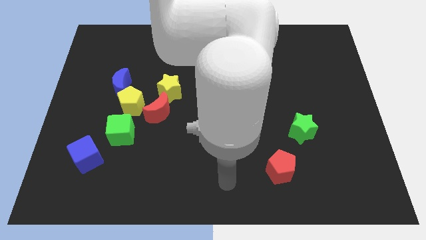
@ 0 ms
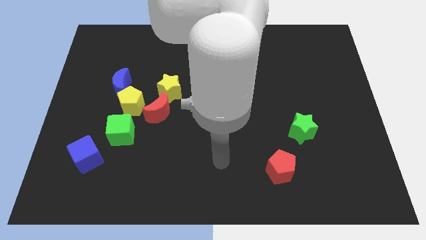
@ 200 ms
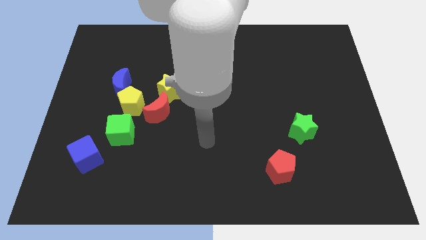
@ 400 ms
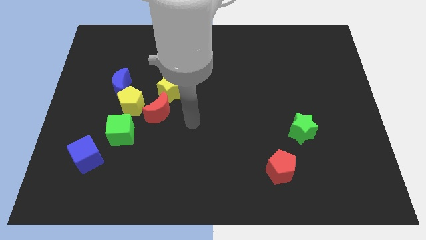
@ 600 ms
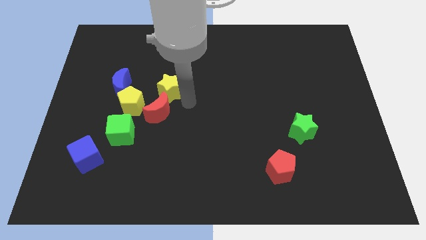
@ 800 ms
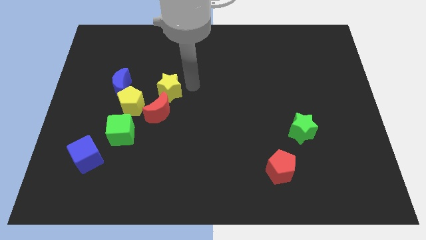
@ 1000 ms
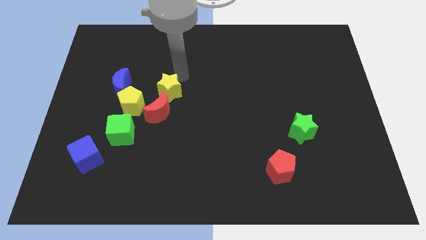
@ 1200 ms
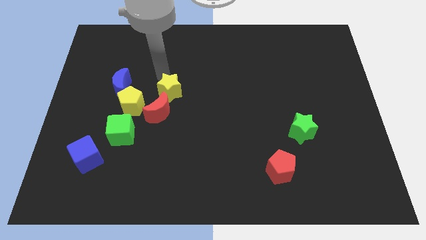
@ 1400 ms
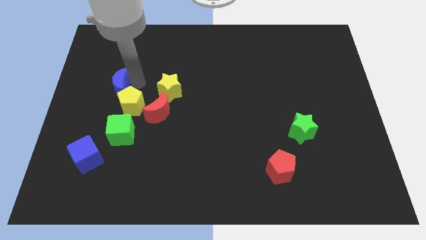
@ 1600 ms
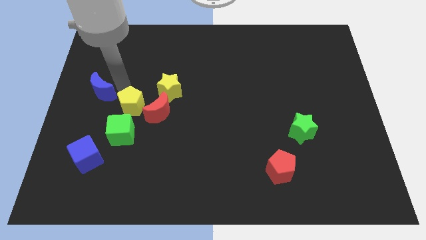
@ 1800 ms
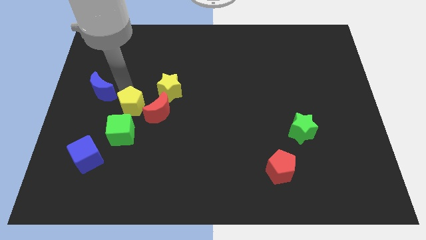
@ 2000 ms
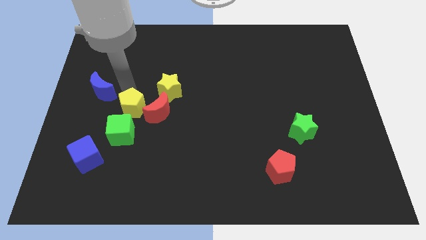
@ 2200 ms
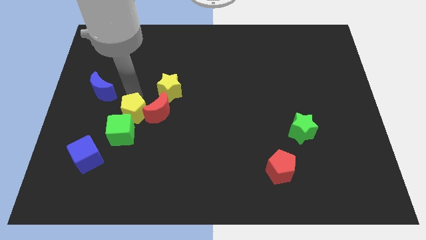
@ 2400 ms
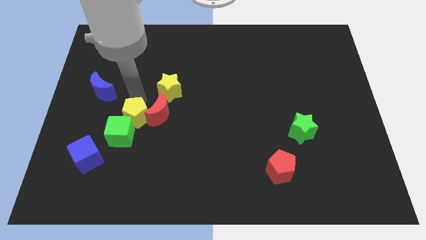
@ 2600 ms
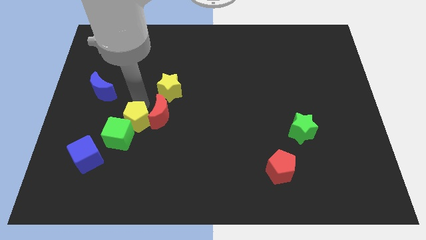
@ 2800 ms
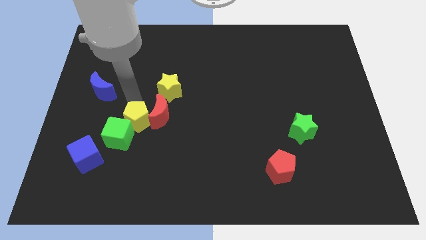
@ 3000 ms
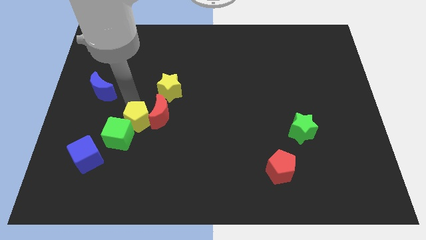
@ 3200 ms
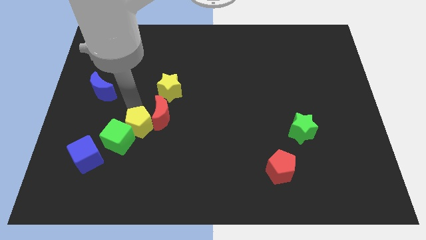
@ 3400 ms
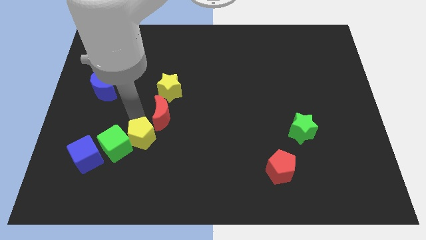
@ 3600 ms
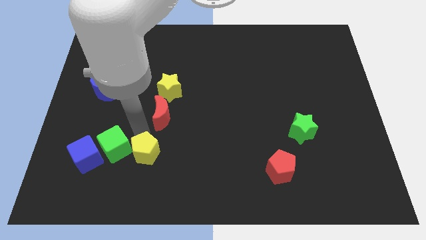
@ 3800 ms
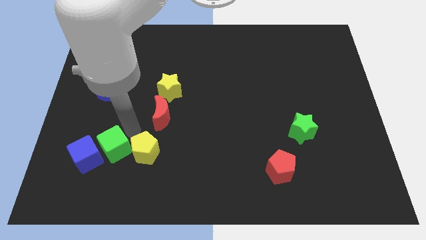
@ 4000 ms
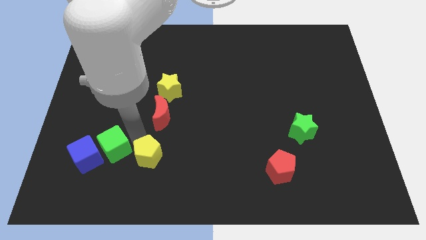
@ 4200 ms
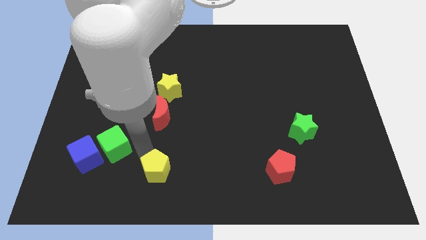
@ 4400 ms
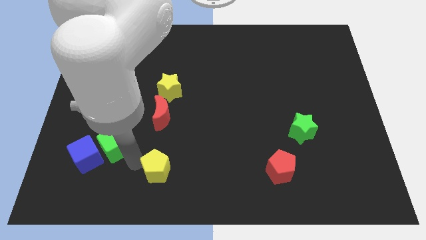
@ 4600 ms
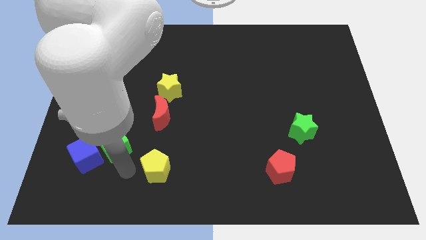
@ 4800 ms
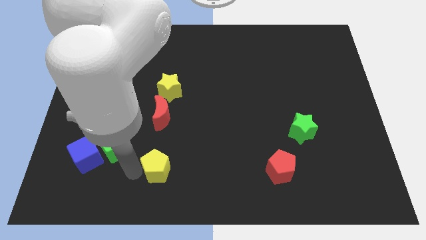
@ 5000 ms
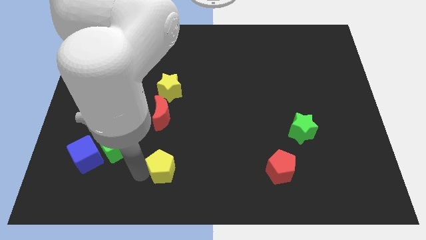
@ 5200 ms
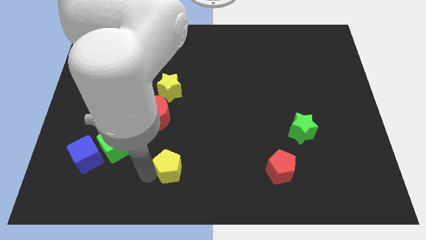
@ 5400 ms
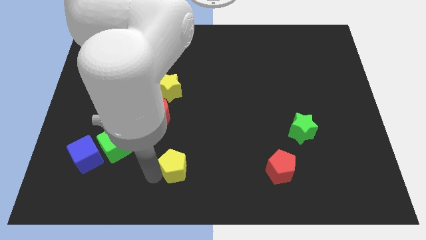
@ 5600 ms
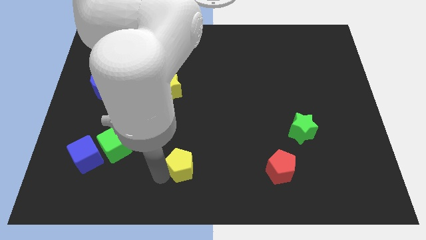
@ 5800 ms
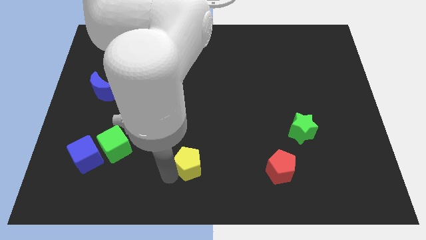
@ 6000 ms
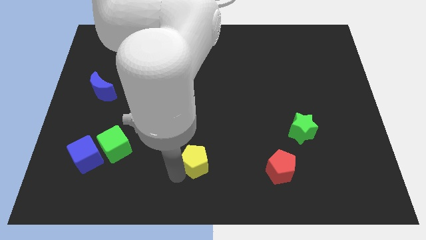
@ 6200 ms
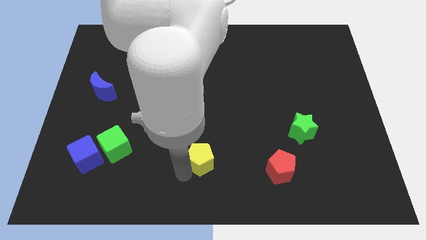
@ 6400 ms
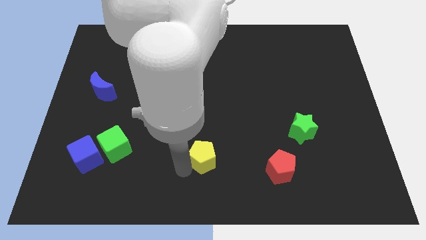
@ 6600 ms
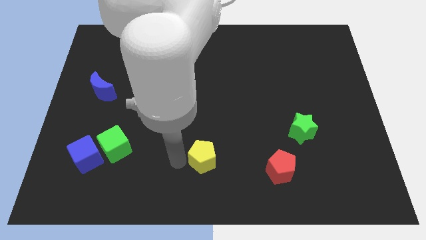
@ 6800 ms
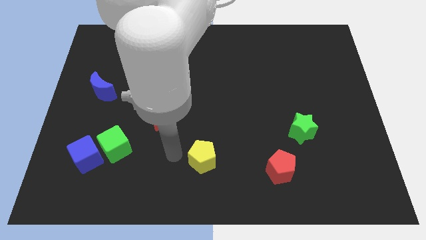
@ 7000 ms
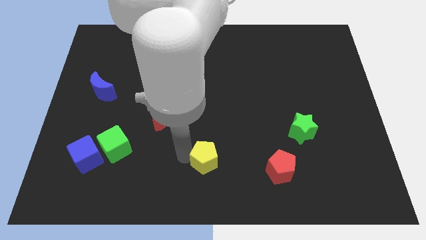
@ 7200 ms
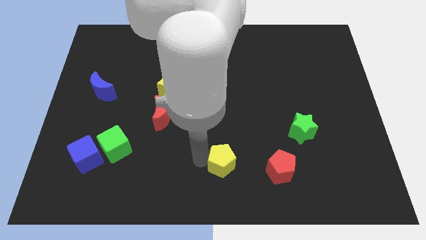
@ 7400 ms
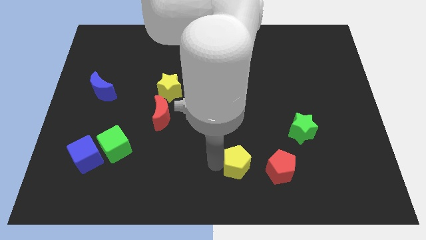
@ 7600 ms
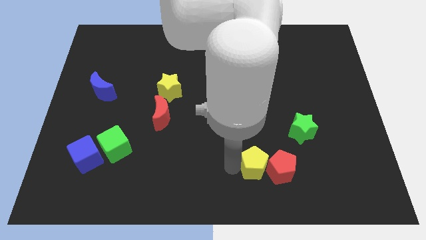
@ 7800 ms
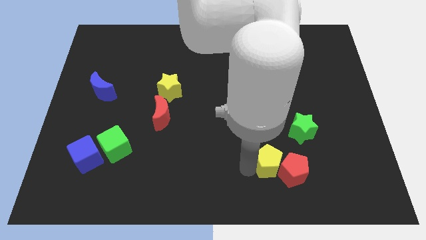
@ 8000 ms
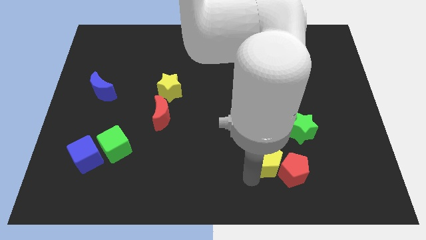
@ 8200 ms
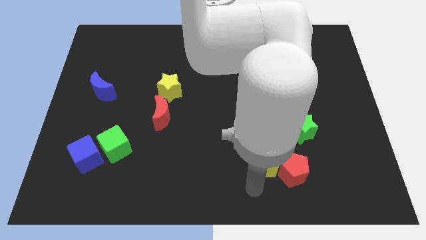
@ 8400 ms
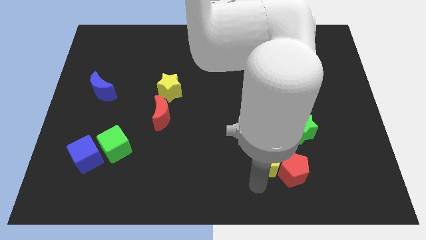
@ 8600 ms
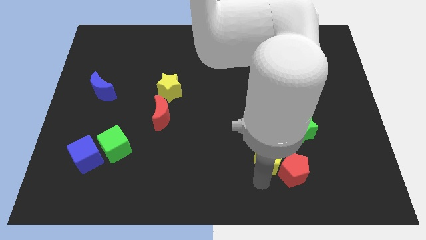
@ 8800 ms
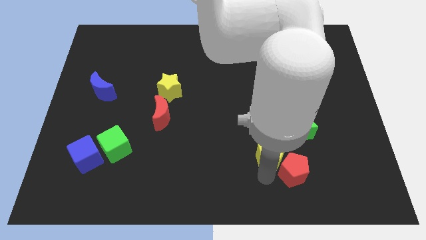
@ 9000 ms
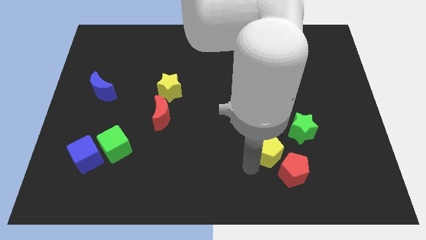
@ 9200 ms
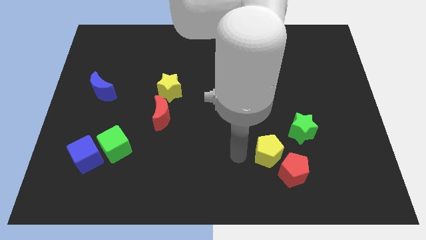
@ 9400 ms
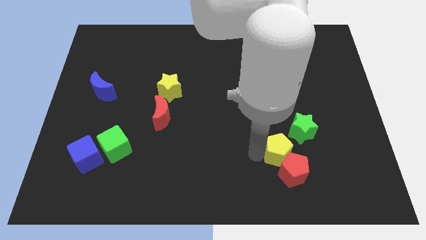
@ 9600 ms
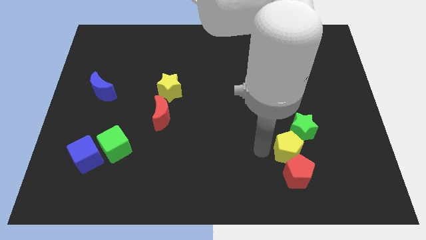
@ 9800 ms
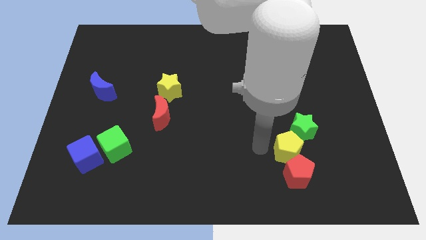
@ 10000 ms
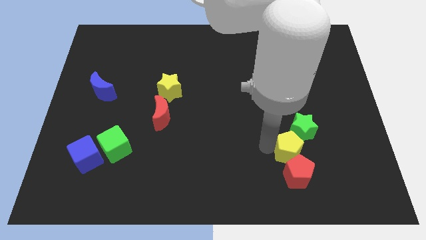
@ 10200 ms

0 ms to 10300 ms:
put the yellow pentagon diagonally up and to the right of the red pentagon

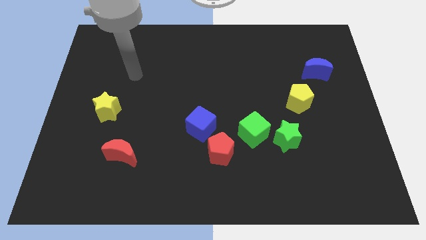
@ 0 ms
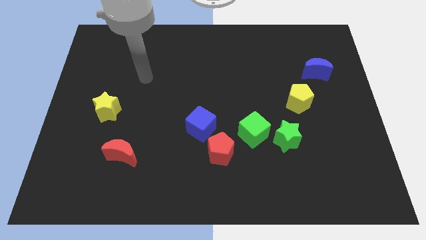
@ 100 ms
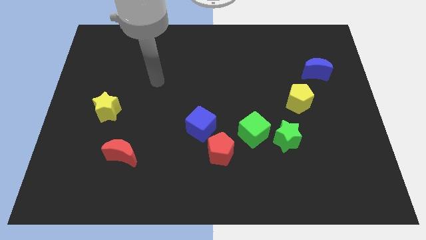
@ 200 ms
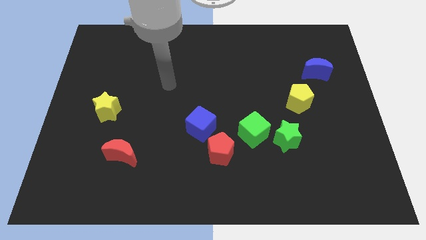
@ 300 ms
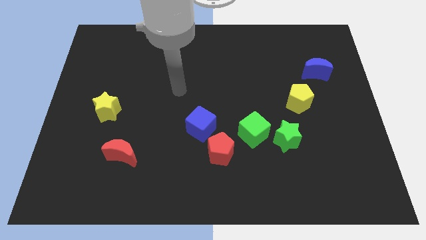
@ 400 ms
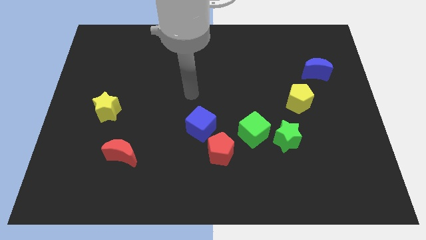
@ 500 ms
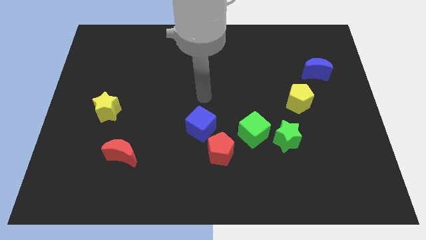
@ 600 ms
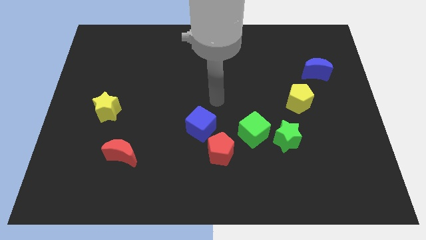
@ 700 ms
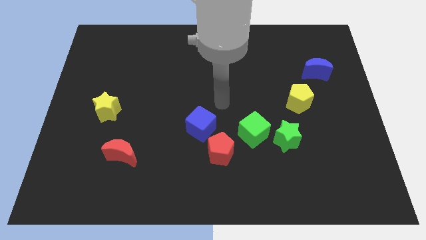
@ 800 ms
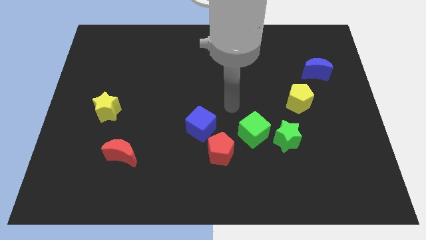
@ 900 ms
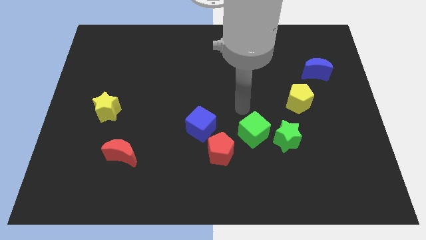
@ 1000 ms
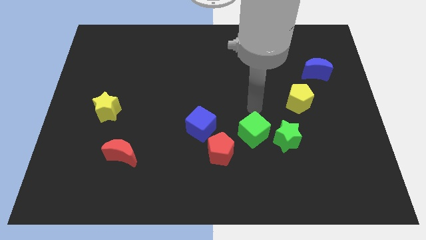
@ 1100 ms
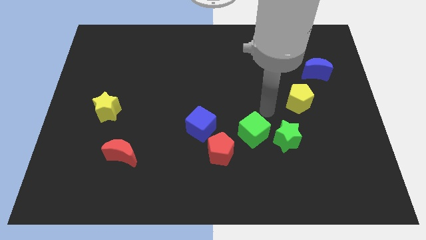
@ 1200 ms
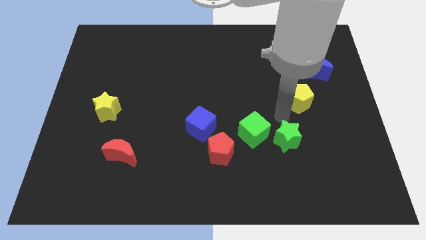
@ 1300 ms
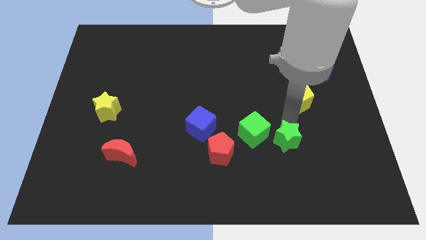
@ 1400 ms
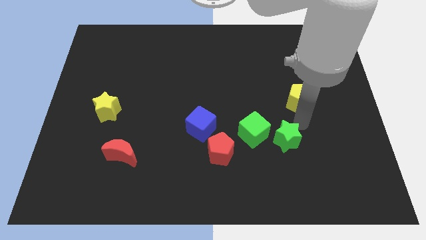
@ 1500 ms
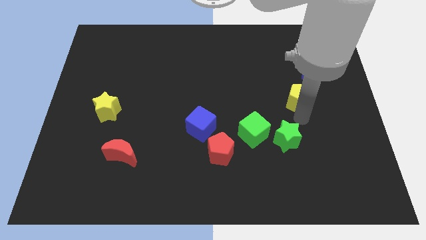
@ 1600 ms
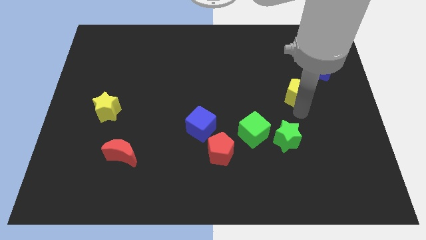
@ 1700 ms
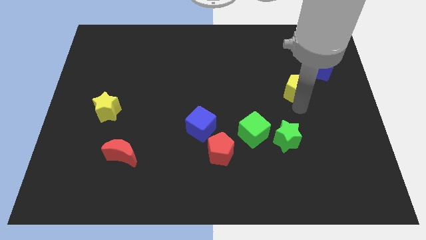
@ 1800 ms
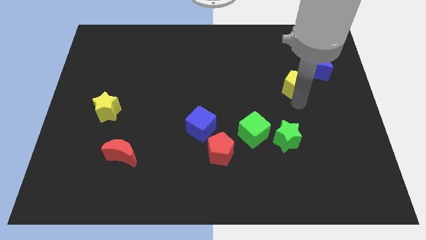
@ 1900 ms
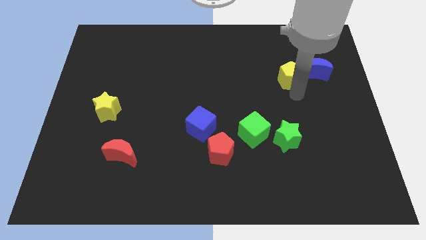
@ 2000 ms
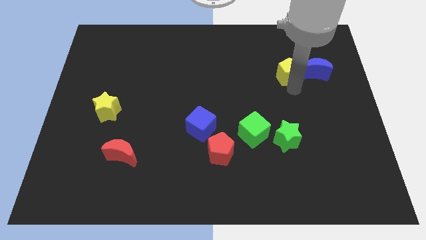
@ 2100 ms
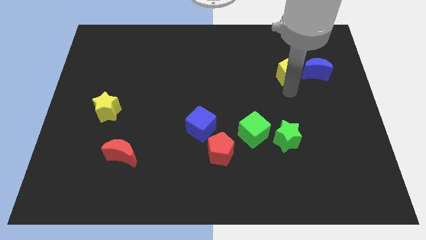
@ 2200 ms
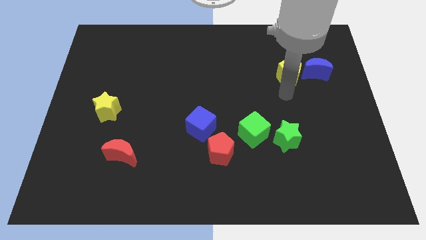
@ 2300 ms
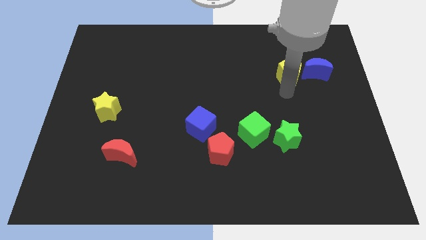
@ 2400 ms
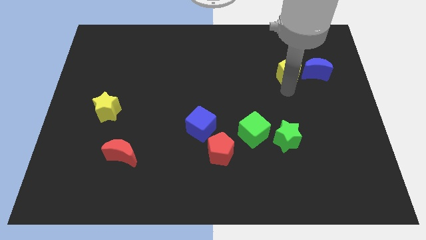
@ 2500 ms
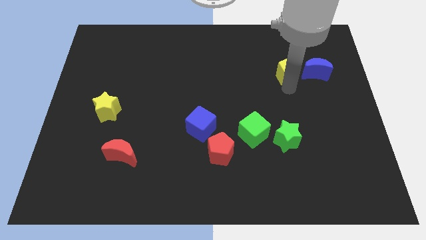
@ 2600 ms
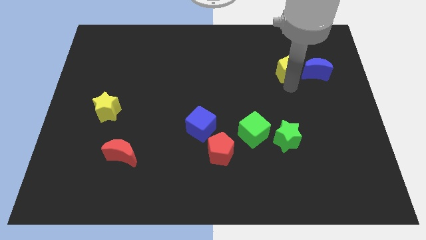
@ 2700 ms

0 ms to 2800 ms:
move the yellow pentagon to the top left side of the blue moon
